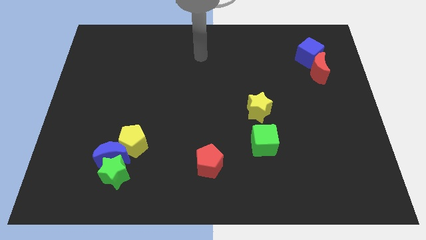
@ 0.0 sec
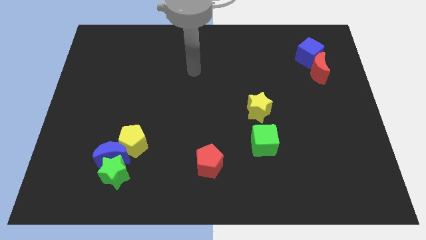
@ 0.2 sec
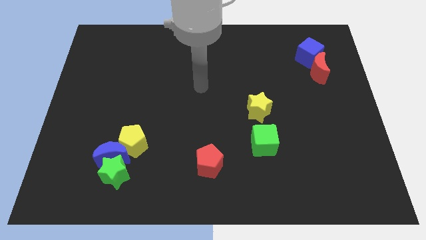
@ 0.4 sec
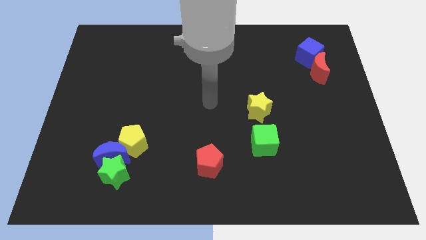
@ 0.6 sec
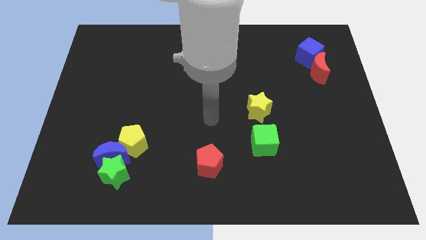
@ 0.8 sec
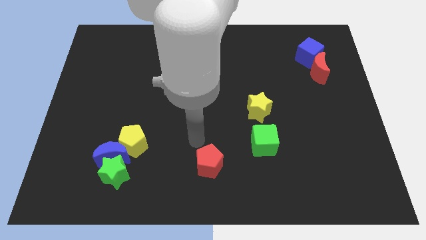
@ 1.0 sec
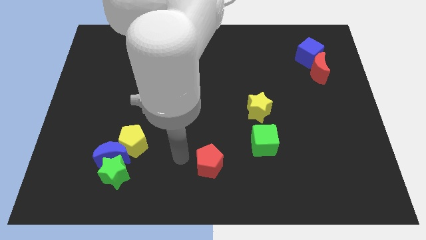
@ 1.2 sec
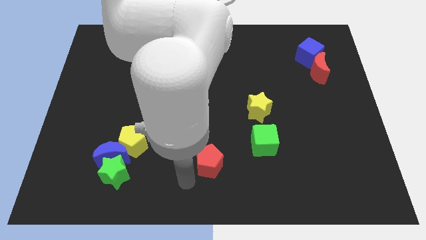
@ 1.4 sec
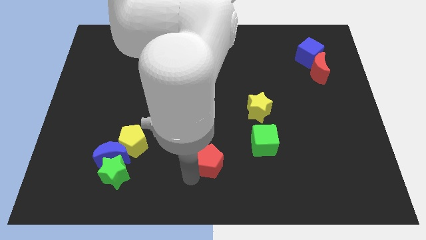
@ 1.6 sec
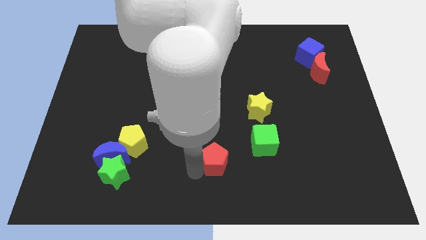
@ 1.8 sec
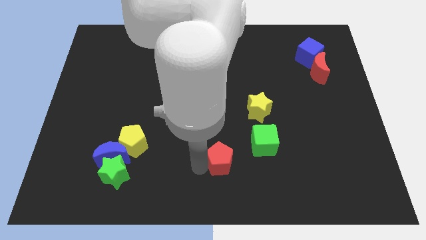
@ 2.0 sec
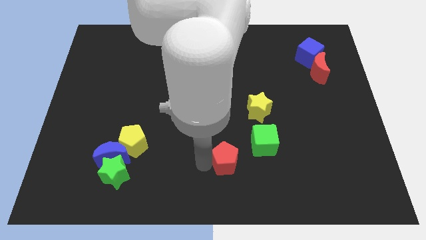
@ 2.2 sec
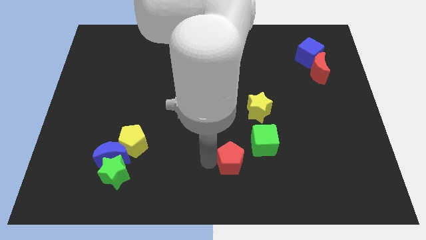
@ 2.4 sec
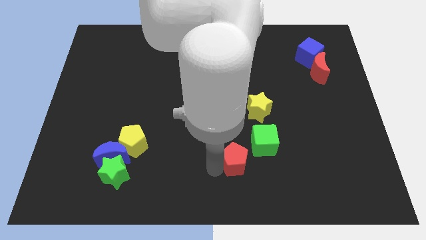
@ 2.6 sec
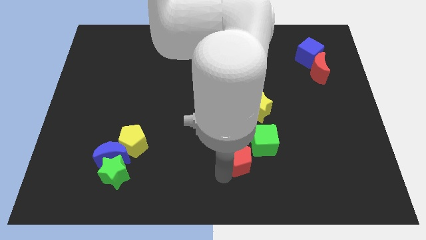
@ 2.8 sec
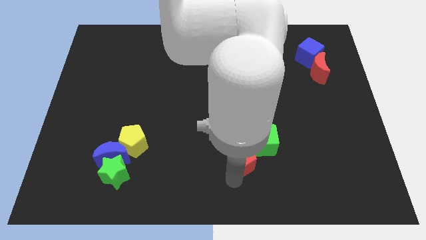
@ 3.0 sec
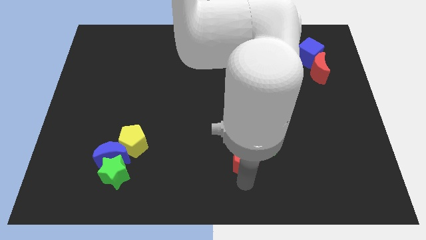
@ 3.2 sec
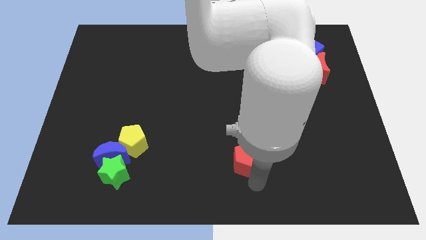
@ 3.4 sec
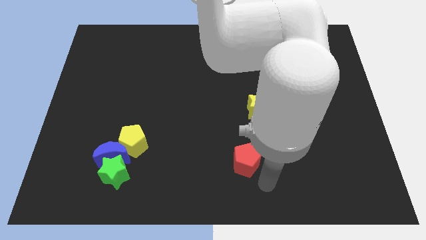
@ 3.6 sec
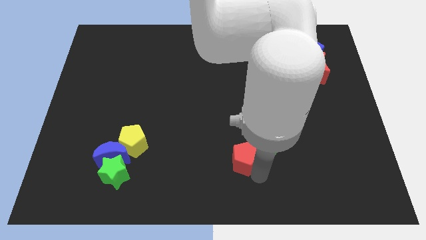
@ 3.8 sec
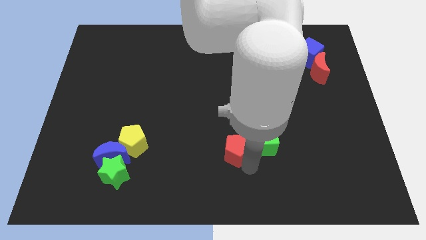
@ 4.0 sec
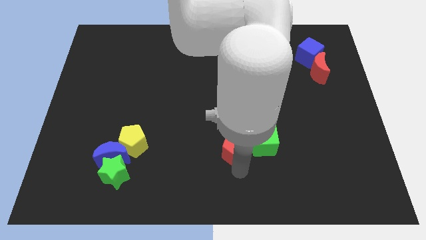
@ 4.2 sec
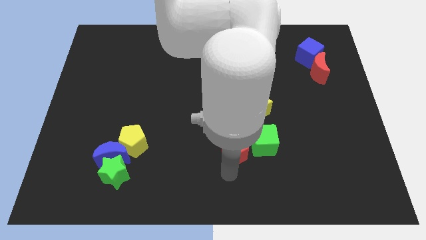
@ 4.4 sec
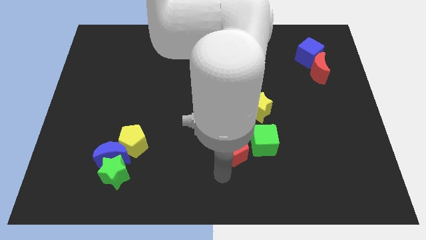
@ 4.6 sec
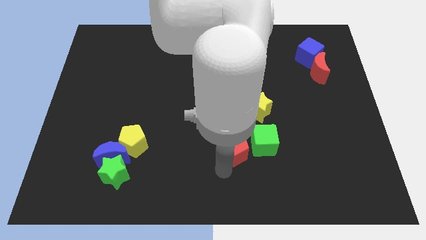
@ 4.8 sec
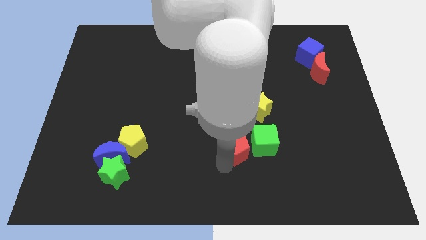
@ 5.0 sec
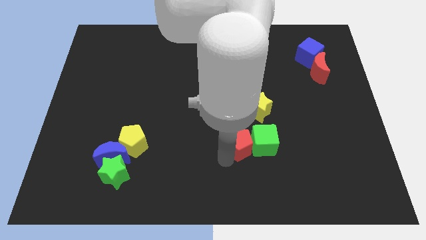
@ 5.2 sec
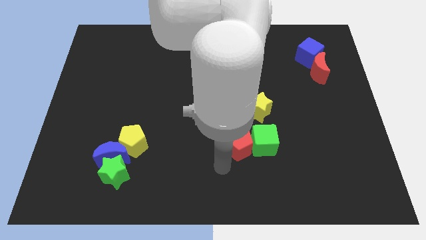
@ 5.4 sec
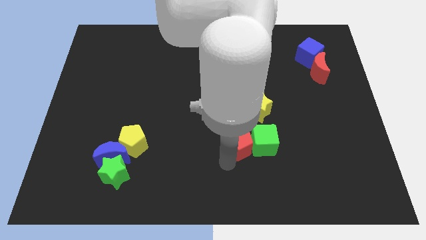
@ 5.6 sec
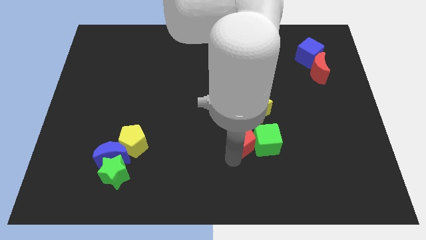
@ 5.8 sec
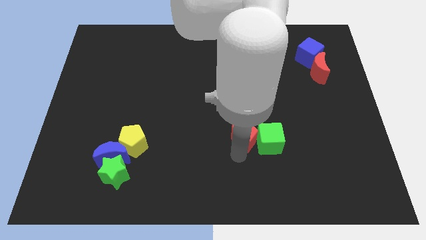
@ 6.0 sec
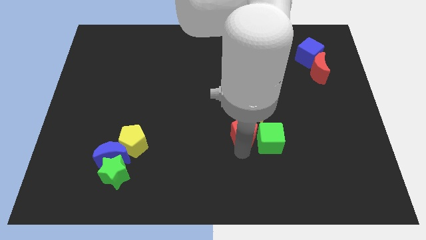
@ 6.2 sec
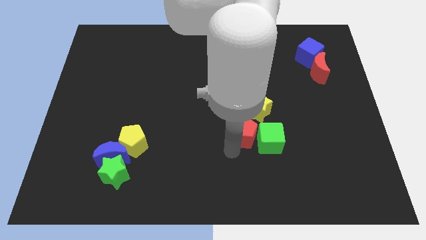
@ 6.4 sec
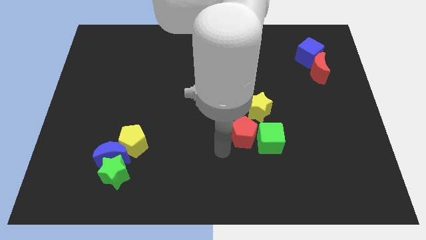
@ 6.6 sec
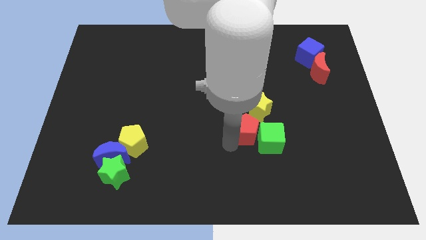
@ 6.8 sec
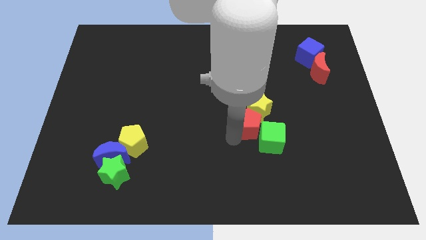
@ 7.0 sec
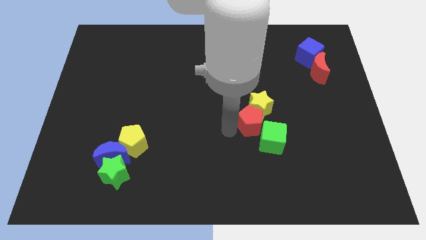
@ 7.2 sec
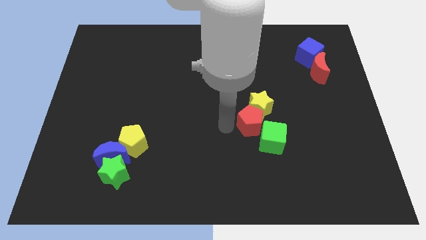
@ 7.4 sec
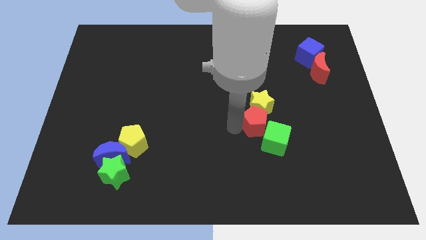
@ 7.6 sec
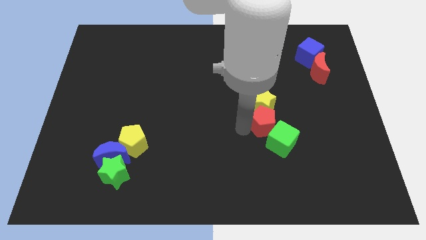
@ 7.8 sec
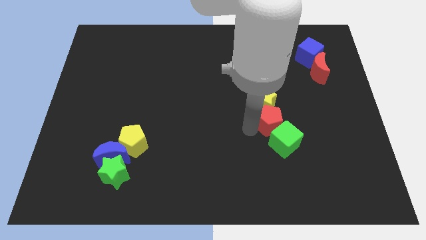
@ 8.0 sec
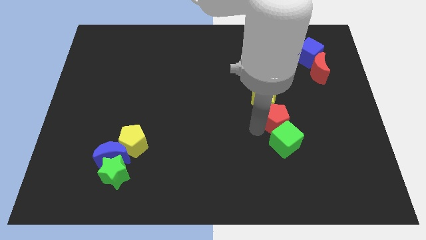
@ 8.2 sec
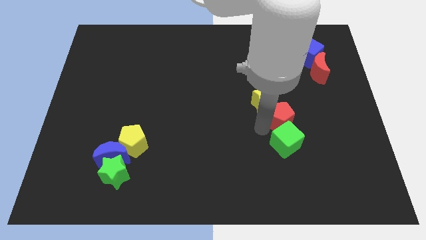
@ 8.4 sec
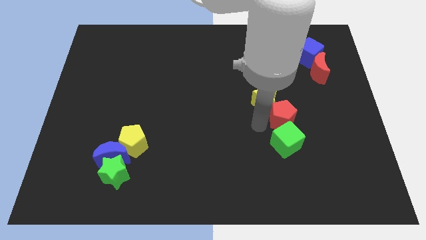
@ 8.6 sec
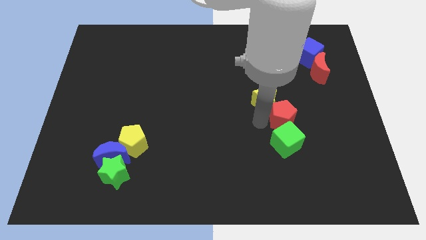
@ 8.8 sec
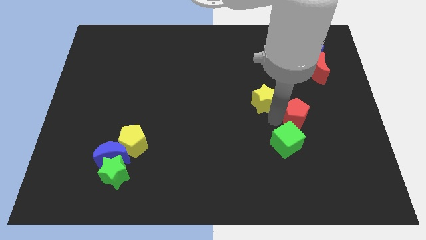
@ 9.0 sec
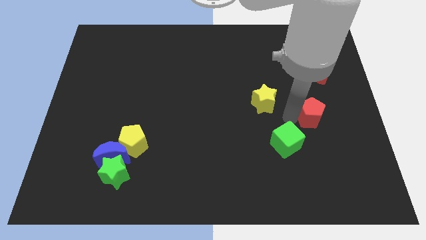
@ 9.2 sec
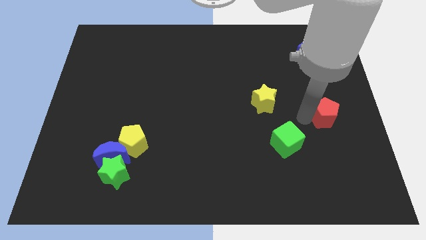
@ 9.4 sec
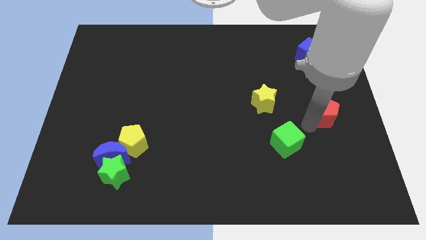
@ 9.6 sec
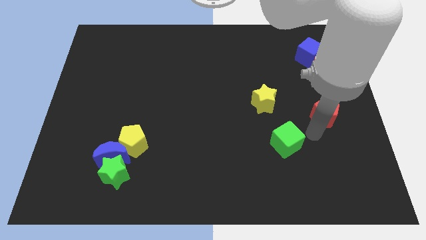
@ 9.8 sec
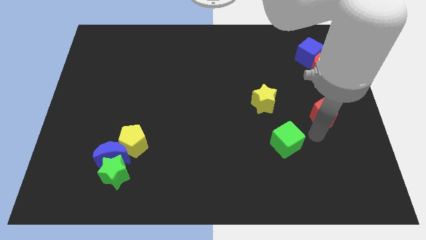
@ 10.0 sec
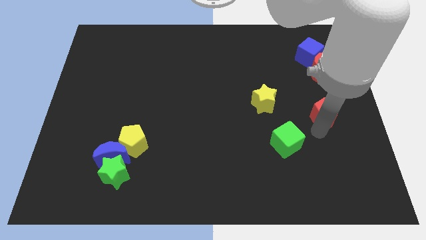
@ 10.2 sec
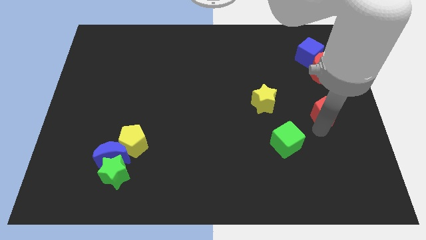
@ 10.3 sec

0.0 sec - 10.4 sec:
put the red pentagon to the center right

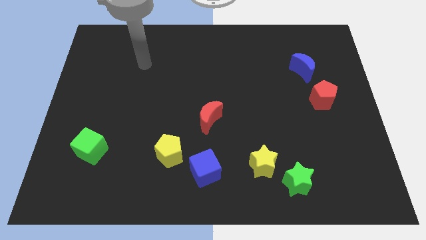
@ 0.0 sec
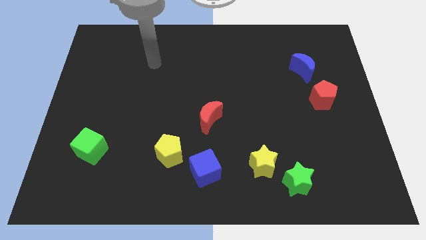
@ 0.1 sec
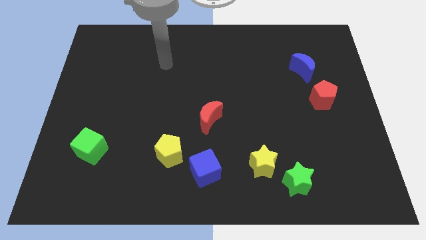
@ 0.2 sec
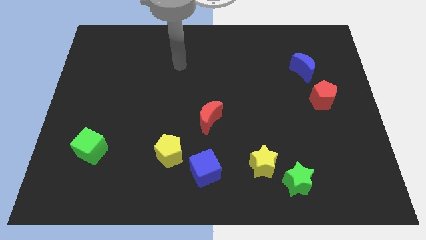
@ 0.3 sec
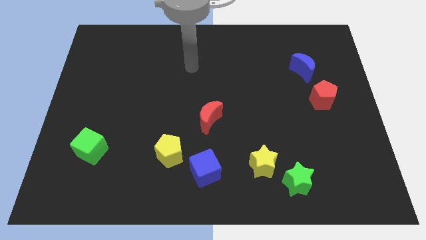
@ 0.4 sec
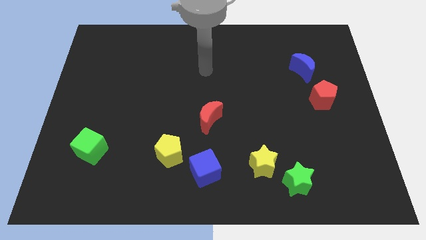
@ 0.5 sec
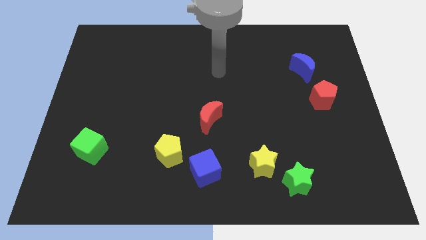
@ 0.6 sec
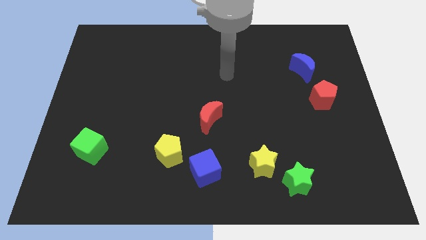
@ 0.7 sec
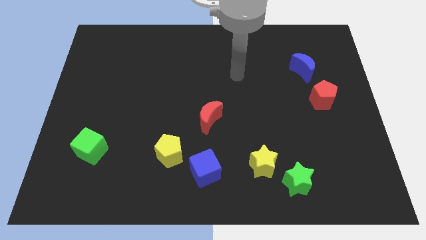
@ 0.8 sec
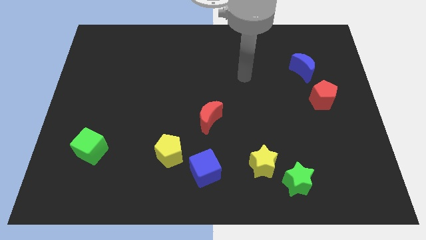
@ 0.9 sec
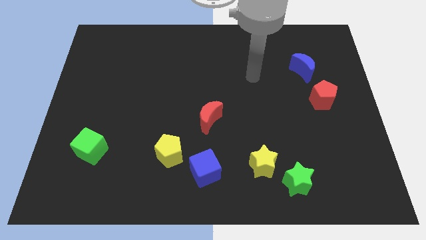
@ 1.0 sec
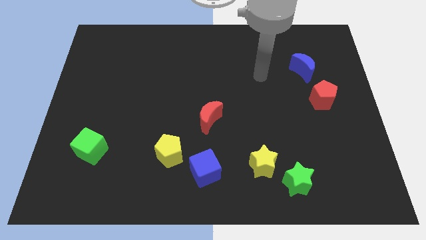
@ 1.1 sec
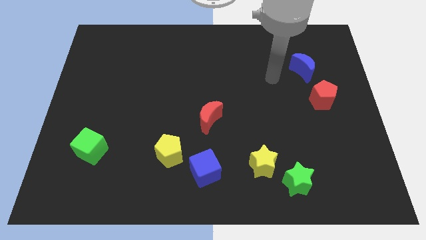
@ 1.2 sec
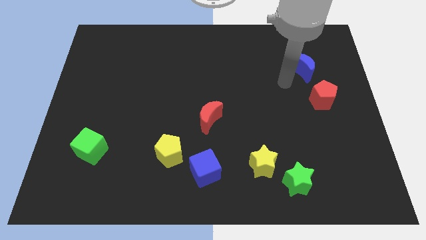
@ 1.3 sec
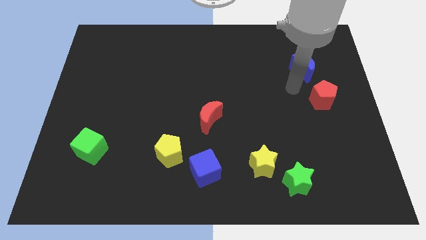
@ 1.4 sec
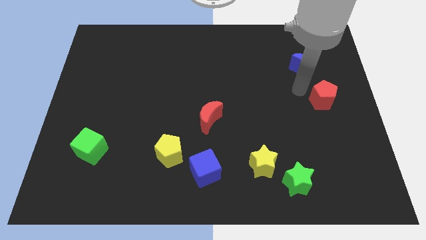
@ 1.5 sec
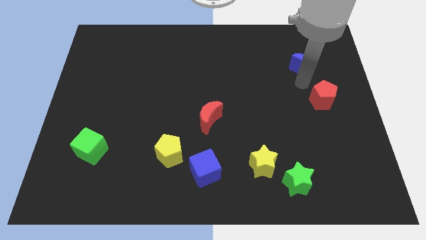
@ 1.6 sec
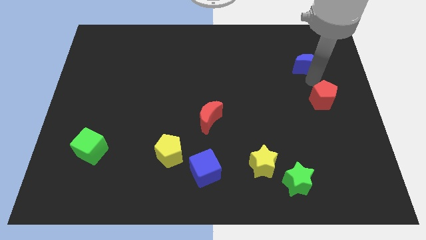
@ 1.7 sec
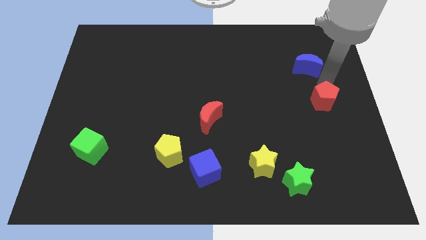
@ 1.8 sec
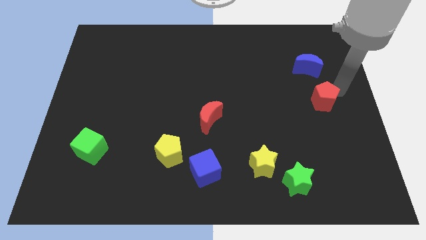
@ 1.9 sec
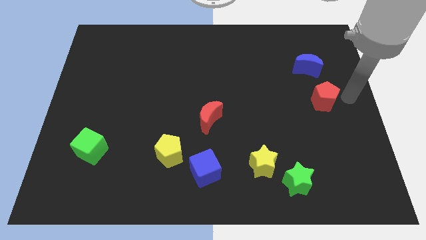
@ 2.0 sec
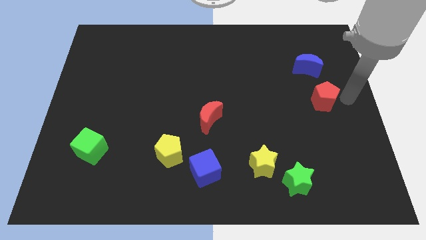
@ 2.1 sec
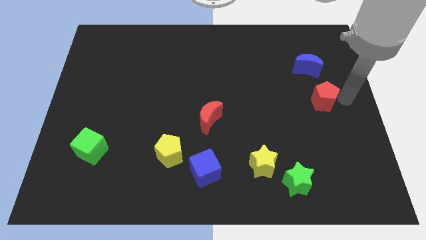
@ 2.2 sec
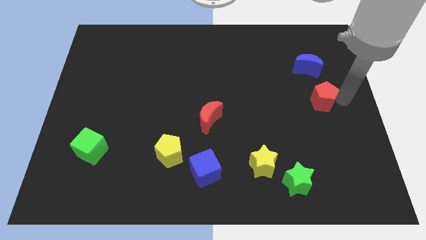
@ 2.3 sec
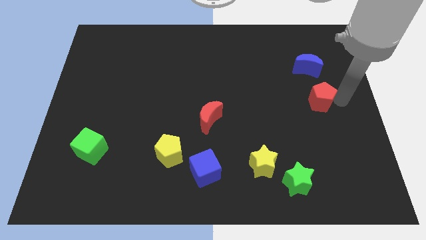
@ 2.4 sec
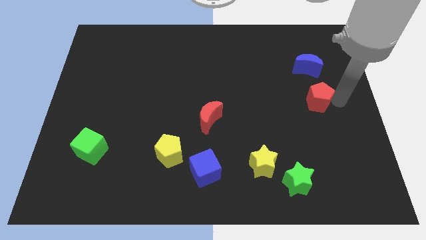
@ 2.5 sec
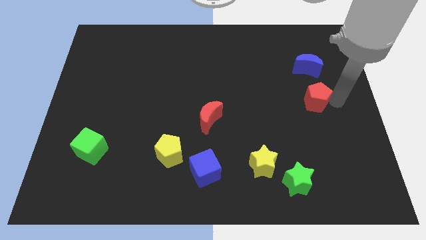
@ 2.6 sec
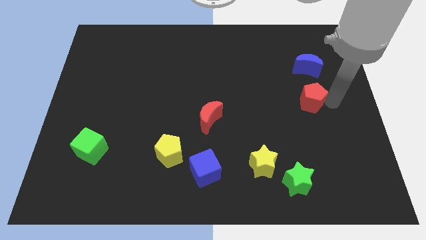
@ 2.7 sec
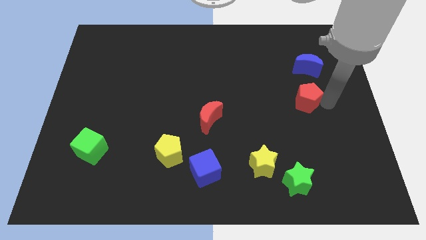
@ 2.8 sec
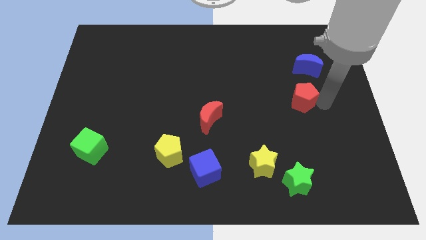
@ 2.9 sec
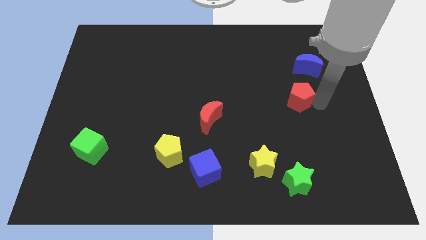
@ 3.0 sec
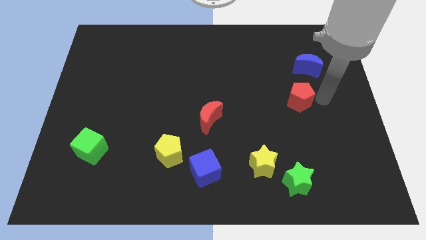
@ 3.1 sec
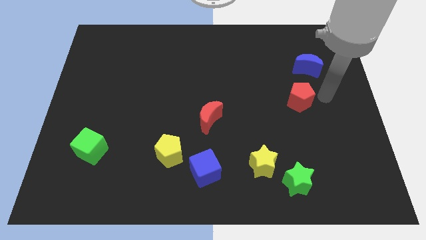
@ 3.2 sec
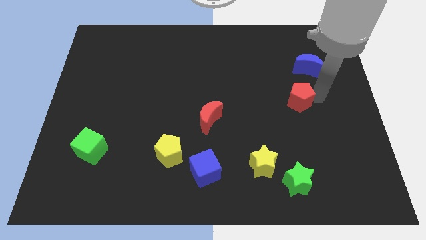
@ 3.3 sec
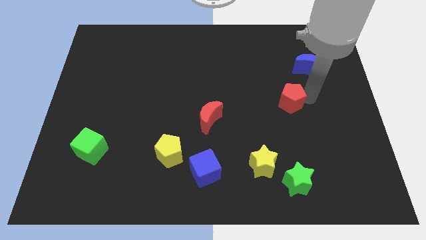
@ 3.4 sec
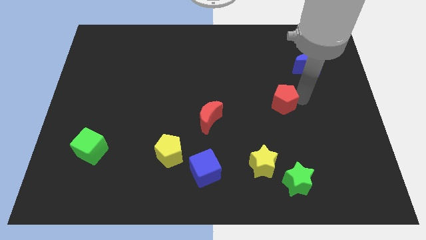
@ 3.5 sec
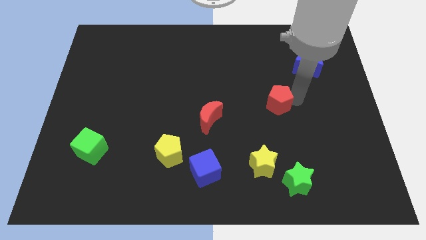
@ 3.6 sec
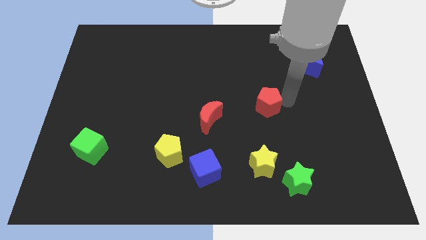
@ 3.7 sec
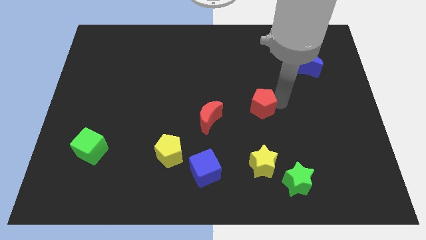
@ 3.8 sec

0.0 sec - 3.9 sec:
put the red pentagon to the center of the board
